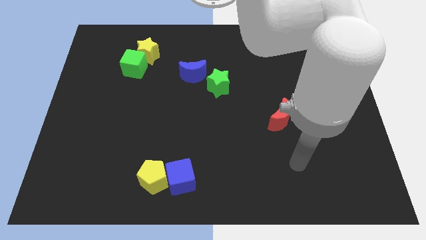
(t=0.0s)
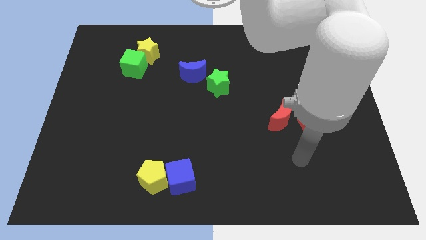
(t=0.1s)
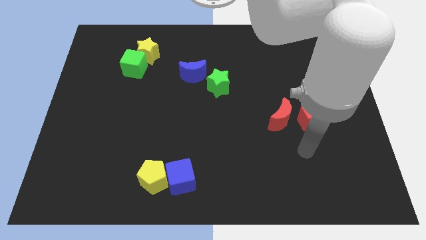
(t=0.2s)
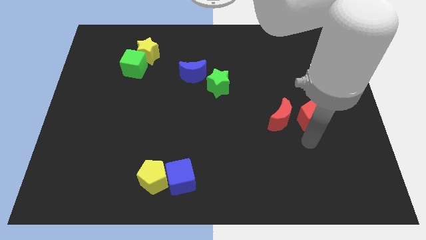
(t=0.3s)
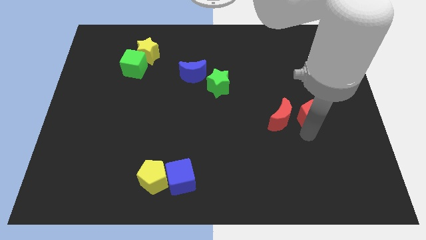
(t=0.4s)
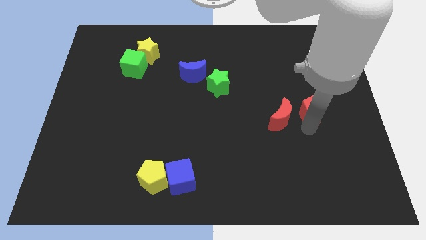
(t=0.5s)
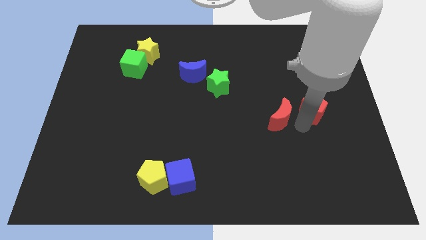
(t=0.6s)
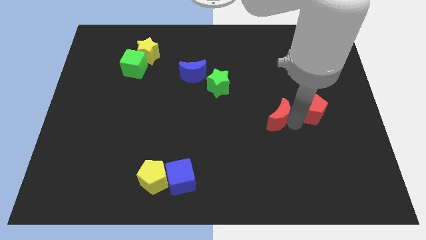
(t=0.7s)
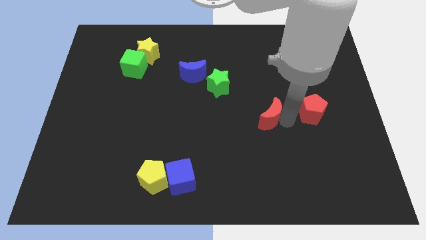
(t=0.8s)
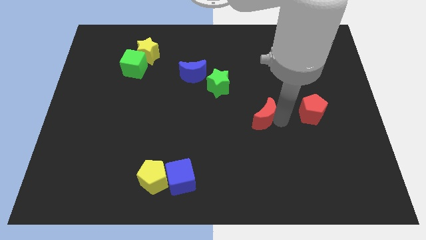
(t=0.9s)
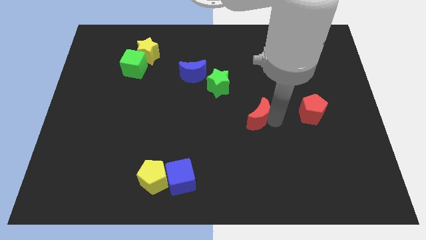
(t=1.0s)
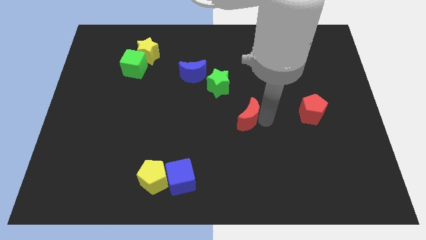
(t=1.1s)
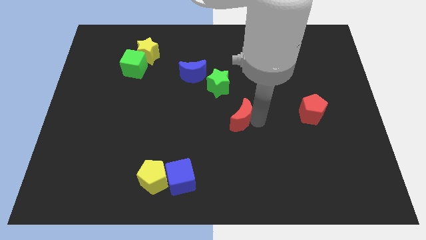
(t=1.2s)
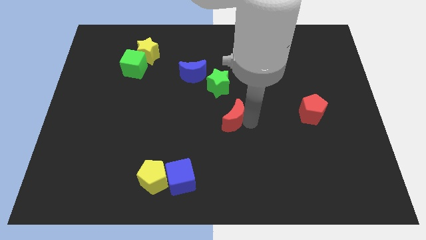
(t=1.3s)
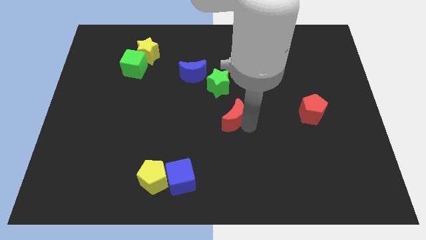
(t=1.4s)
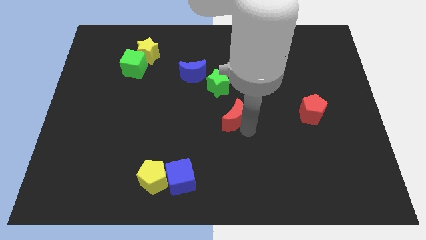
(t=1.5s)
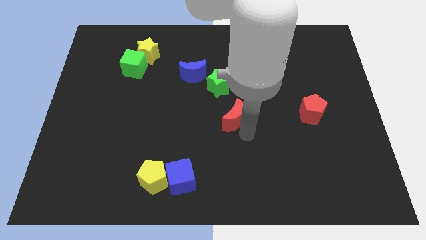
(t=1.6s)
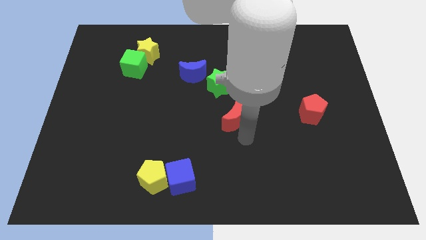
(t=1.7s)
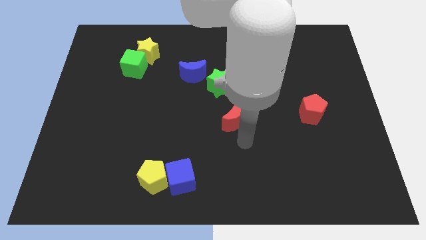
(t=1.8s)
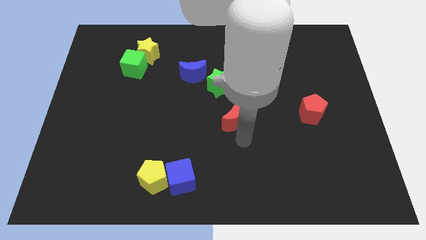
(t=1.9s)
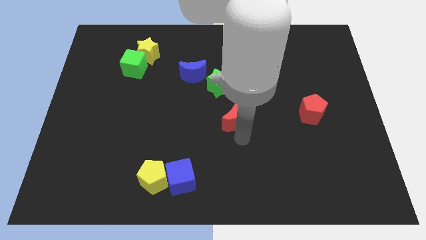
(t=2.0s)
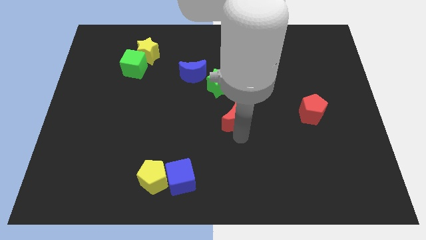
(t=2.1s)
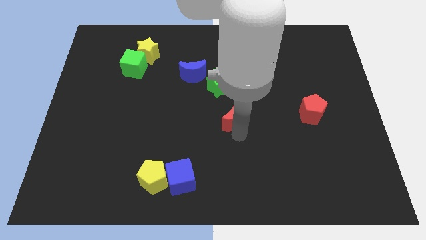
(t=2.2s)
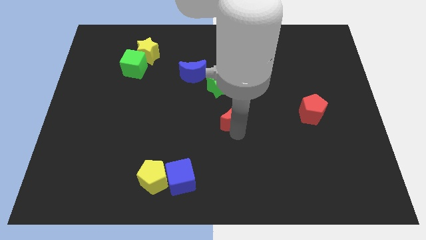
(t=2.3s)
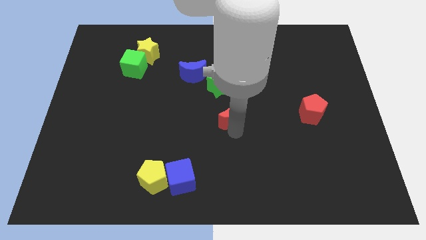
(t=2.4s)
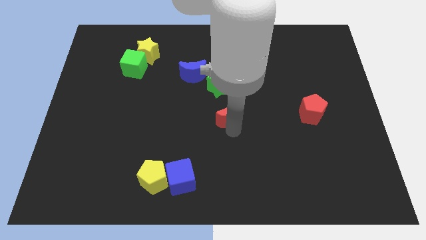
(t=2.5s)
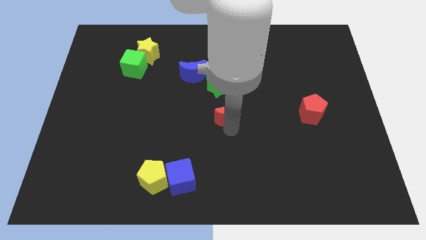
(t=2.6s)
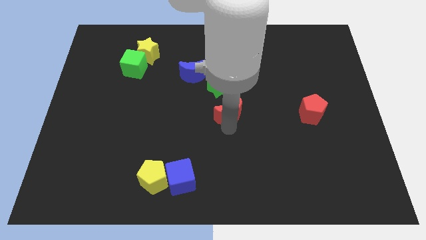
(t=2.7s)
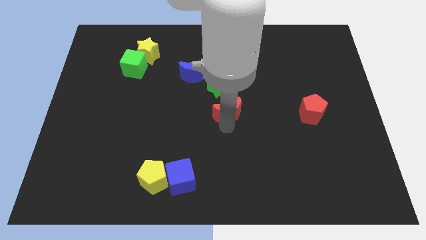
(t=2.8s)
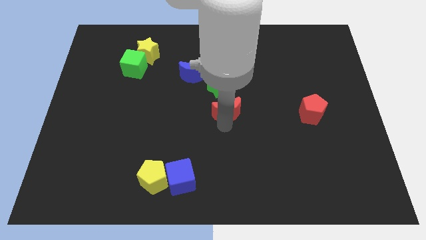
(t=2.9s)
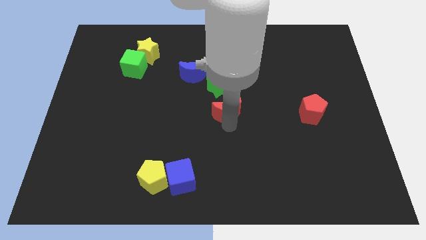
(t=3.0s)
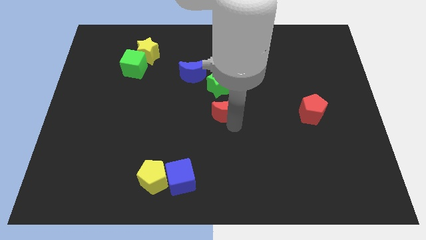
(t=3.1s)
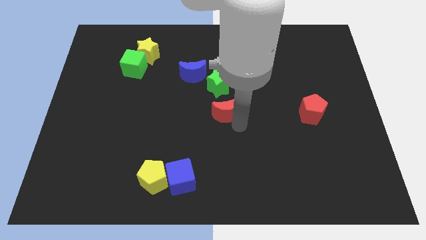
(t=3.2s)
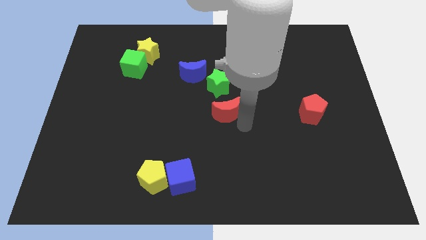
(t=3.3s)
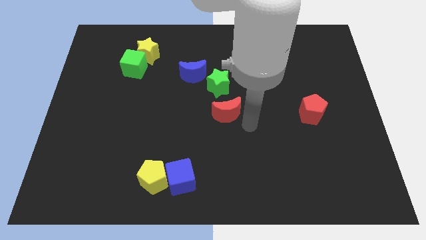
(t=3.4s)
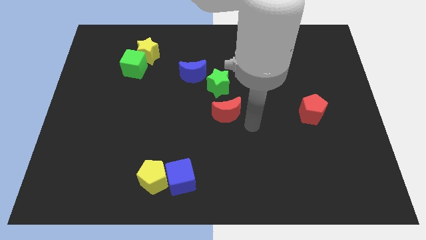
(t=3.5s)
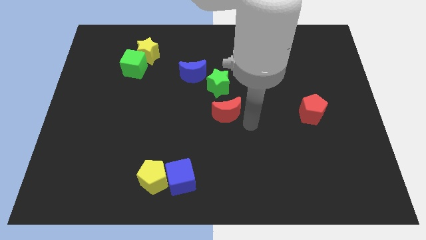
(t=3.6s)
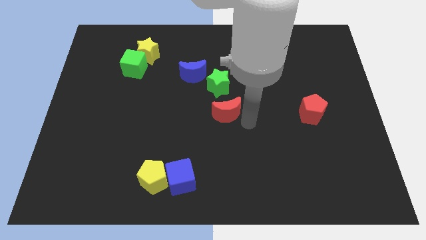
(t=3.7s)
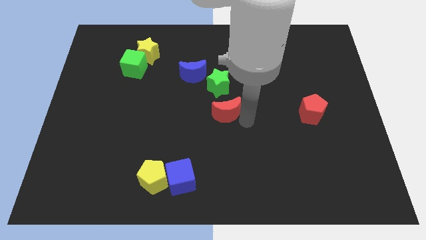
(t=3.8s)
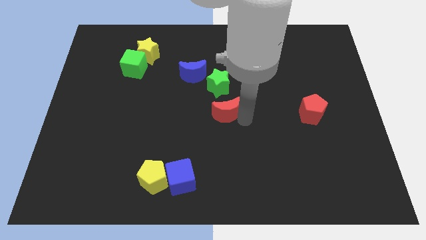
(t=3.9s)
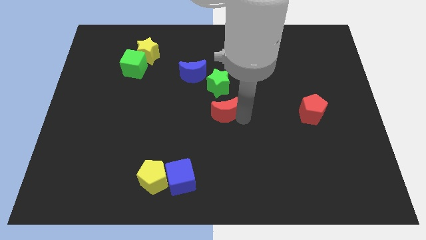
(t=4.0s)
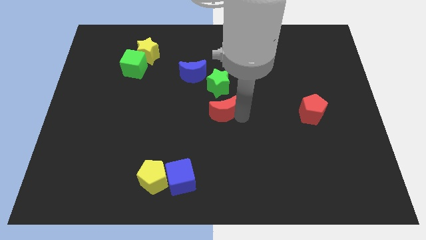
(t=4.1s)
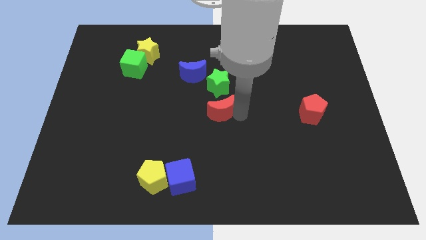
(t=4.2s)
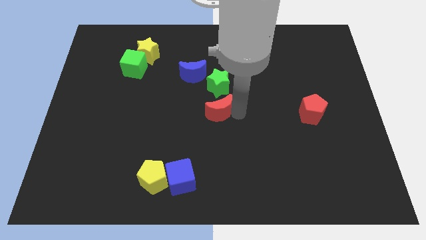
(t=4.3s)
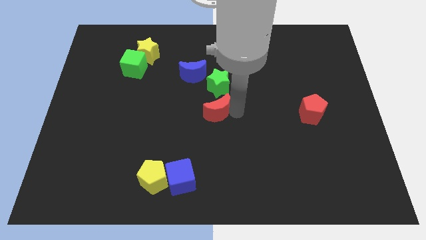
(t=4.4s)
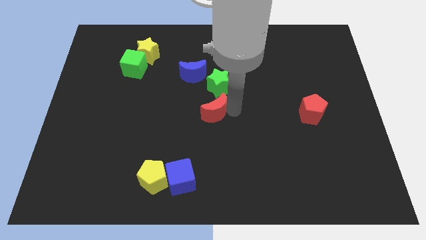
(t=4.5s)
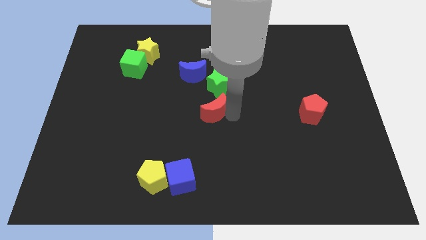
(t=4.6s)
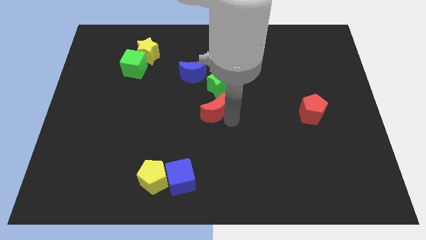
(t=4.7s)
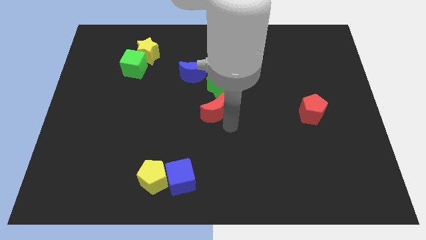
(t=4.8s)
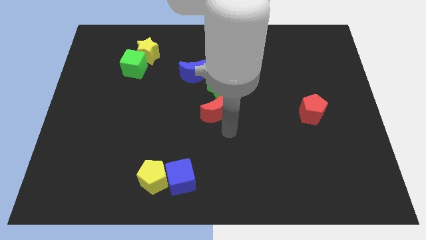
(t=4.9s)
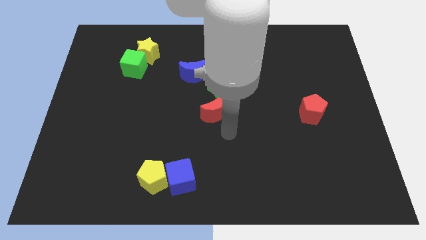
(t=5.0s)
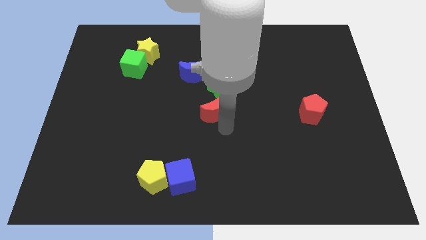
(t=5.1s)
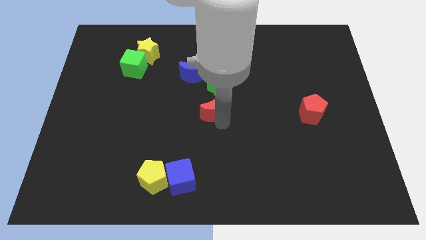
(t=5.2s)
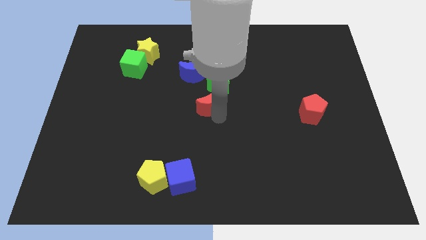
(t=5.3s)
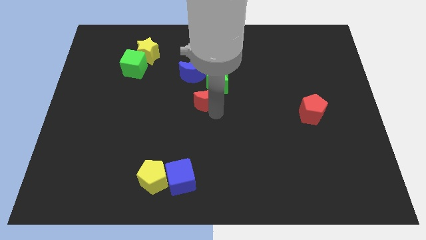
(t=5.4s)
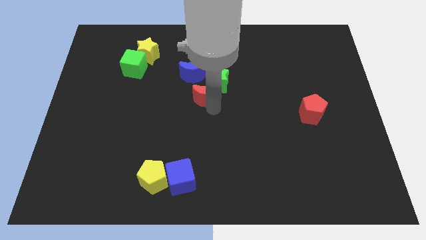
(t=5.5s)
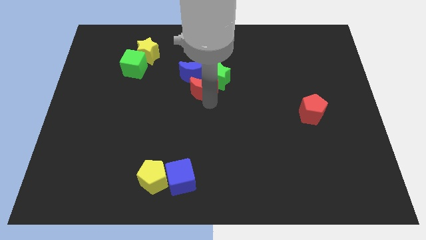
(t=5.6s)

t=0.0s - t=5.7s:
move the red moon towards the blue moon
